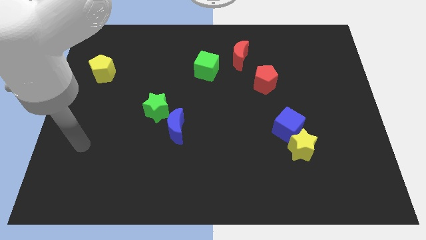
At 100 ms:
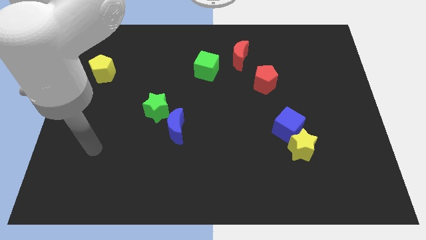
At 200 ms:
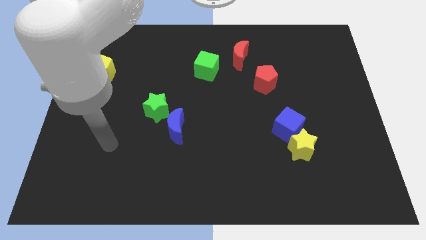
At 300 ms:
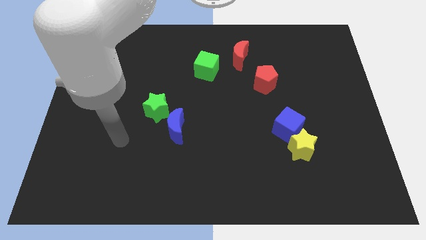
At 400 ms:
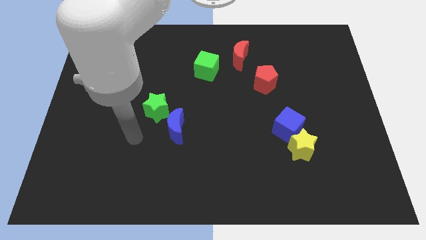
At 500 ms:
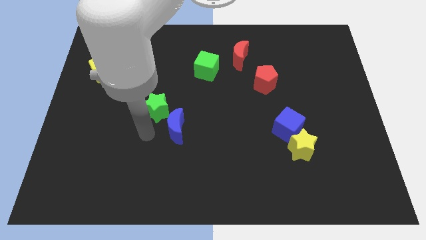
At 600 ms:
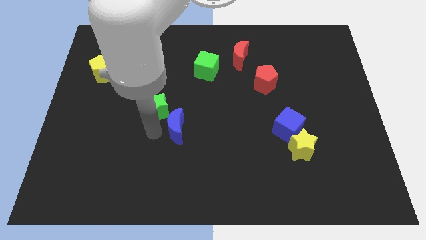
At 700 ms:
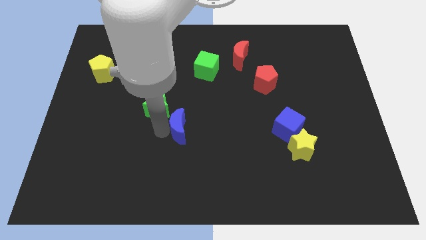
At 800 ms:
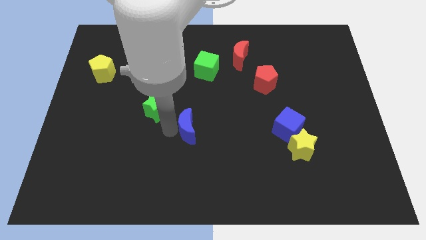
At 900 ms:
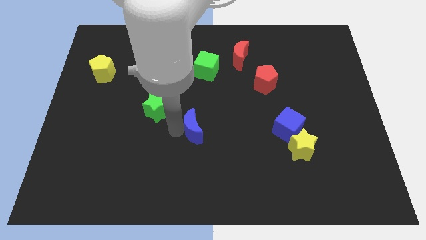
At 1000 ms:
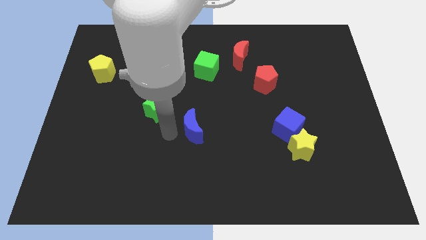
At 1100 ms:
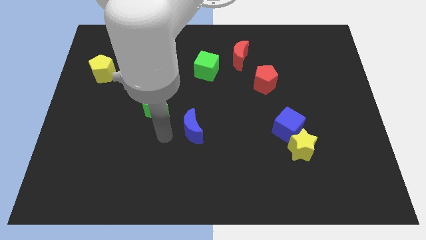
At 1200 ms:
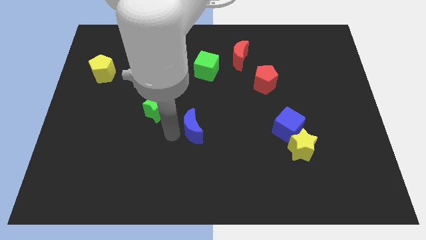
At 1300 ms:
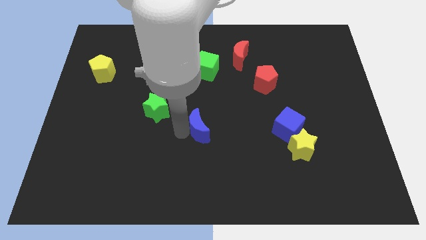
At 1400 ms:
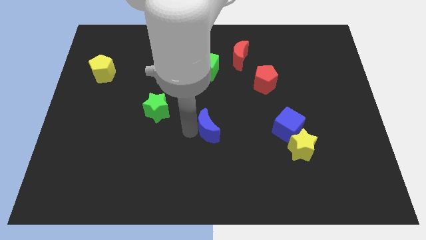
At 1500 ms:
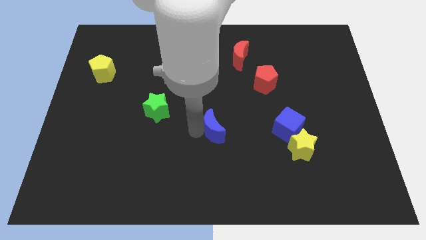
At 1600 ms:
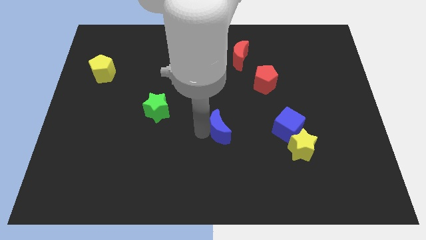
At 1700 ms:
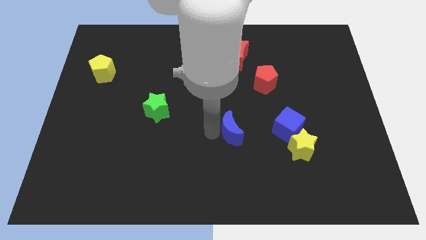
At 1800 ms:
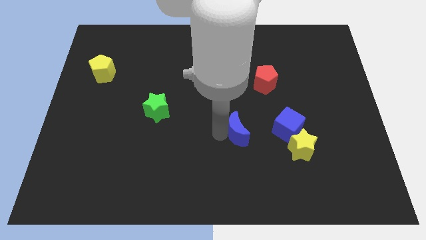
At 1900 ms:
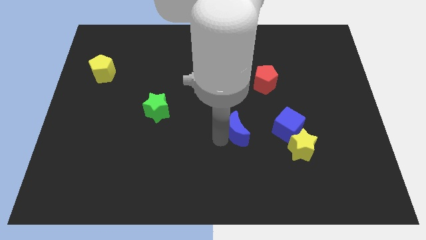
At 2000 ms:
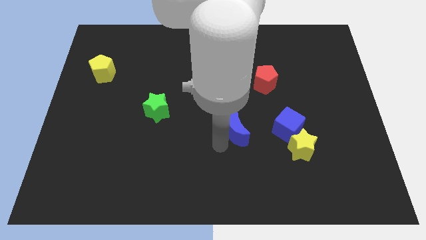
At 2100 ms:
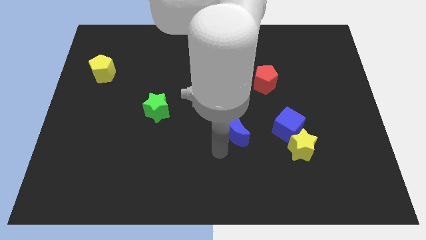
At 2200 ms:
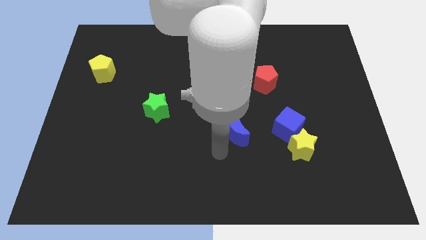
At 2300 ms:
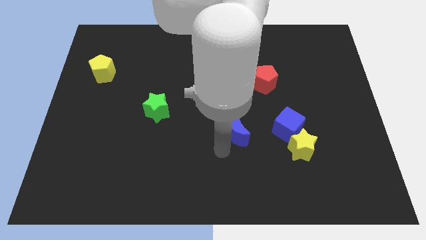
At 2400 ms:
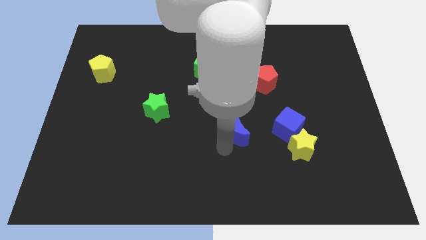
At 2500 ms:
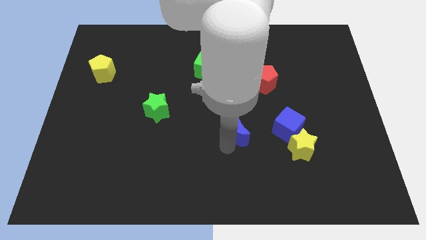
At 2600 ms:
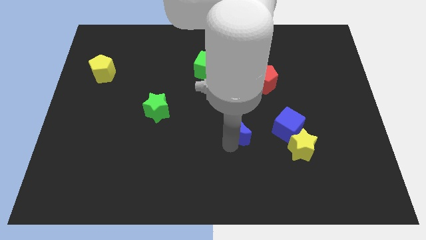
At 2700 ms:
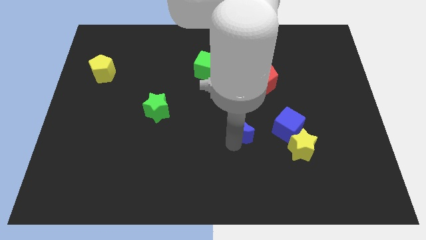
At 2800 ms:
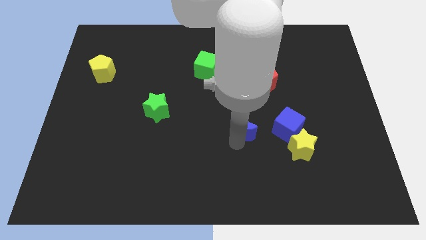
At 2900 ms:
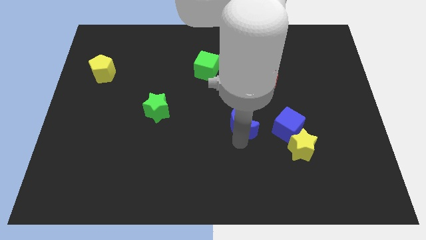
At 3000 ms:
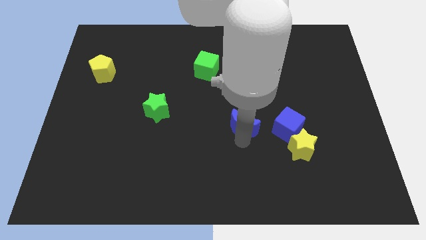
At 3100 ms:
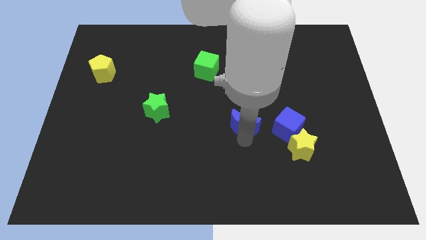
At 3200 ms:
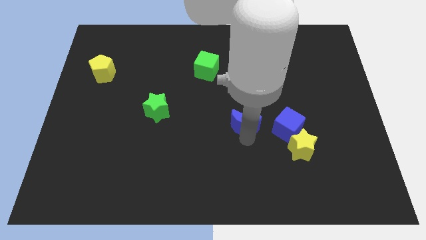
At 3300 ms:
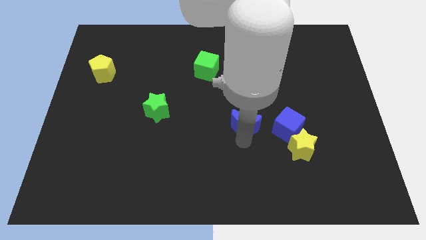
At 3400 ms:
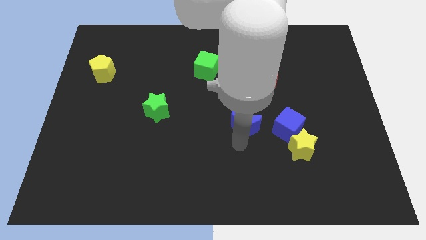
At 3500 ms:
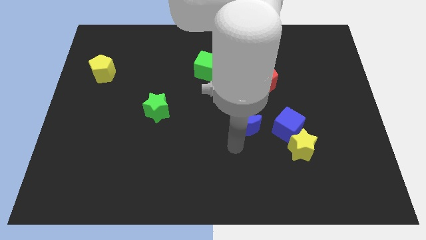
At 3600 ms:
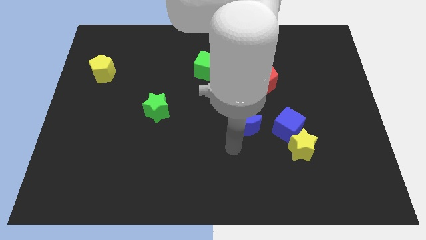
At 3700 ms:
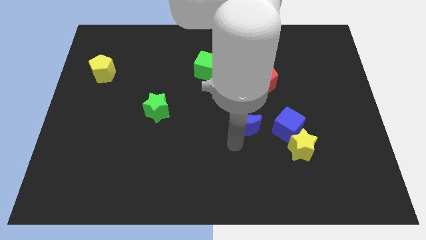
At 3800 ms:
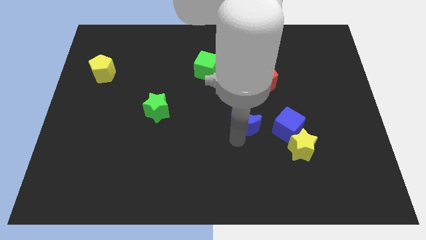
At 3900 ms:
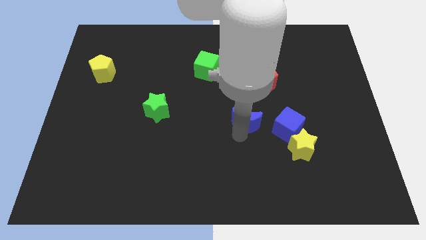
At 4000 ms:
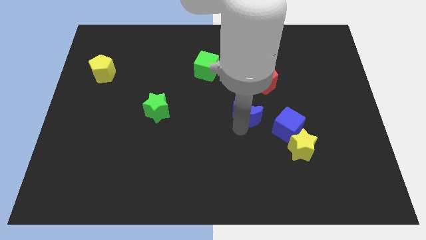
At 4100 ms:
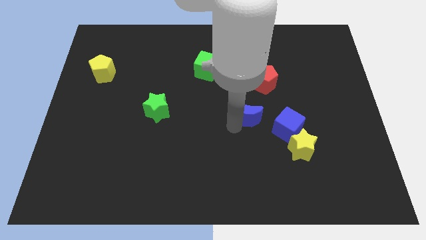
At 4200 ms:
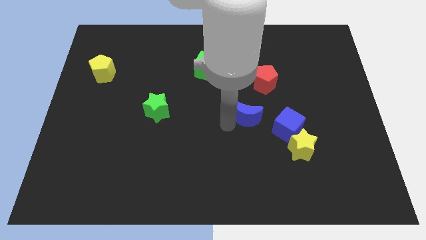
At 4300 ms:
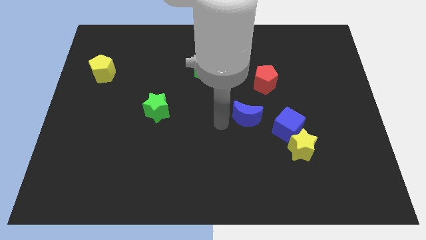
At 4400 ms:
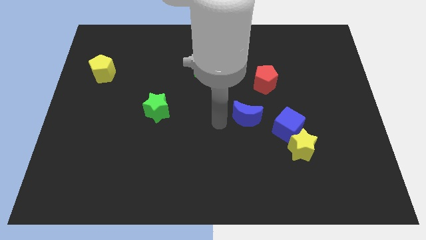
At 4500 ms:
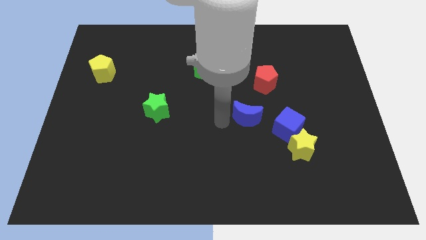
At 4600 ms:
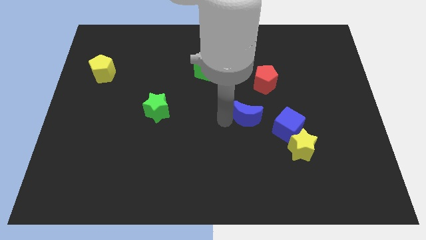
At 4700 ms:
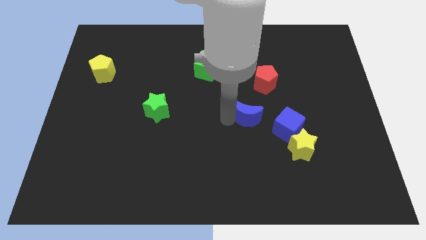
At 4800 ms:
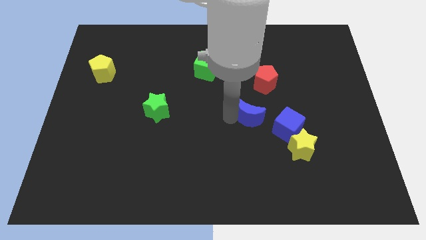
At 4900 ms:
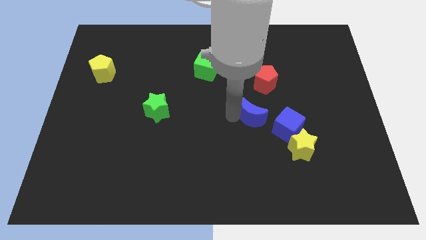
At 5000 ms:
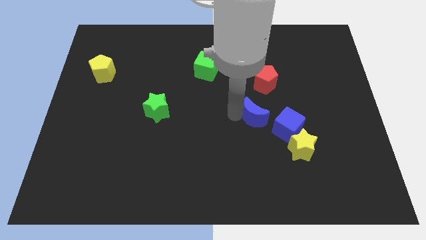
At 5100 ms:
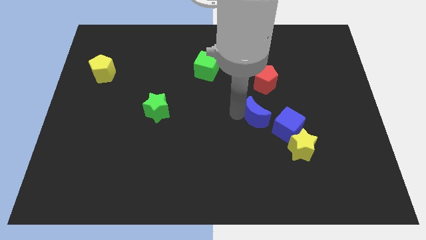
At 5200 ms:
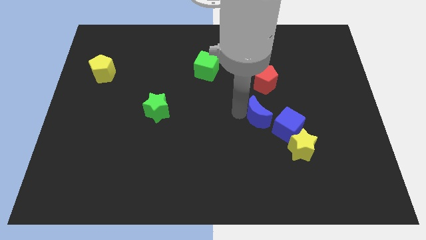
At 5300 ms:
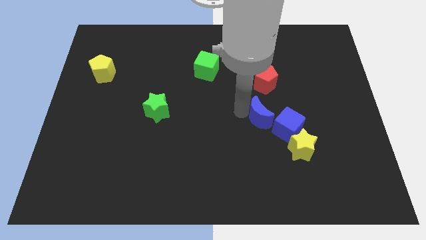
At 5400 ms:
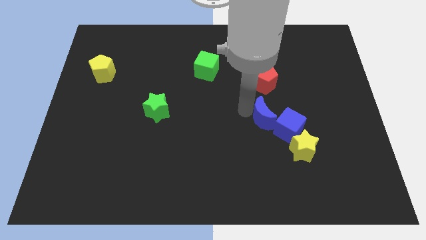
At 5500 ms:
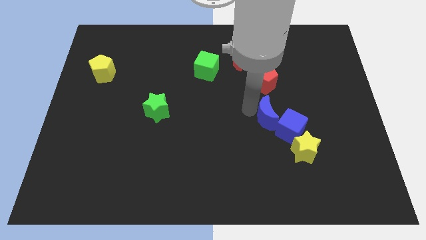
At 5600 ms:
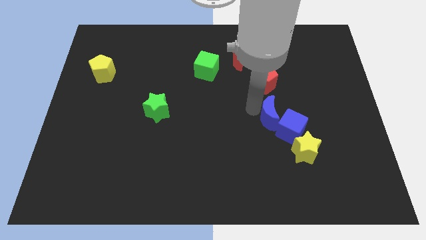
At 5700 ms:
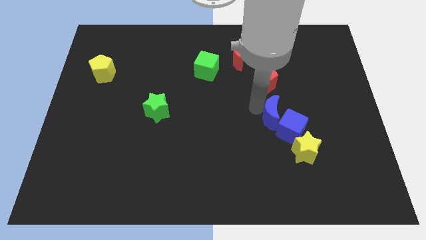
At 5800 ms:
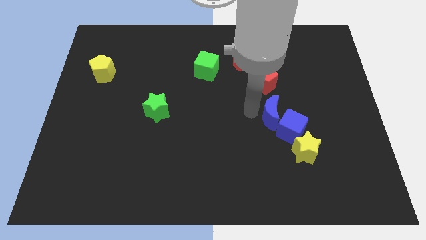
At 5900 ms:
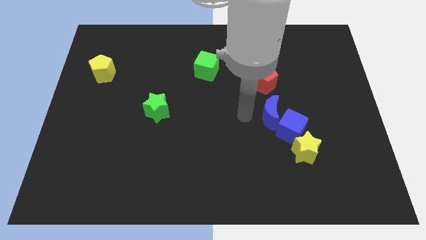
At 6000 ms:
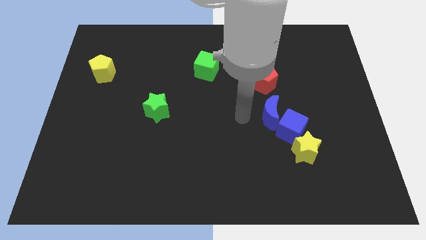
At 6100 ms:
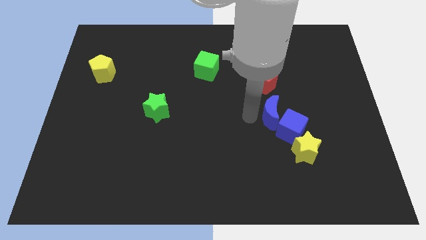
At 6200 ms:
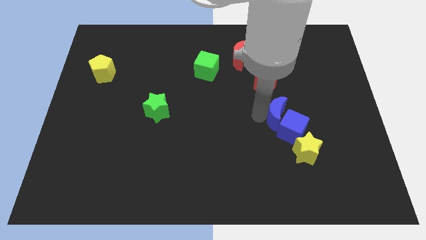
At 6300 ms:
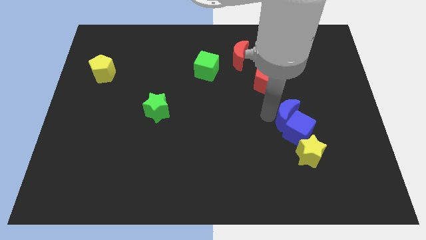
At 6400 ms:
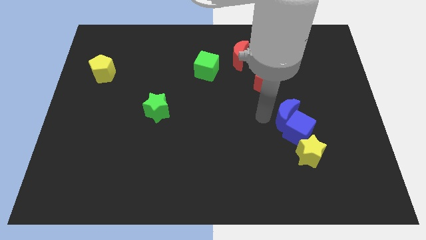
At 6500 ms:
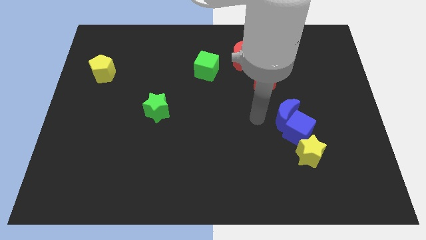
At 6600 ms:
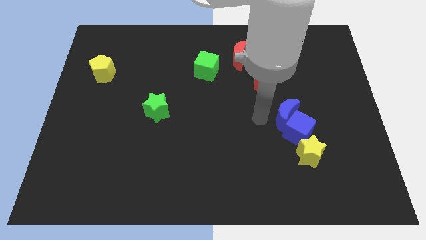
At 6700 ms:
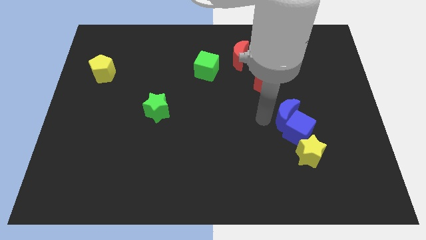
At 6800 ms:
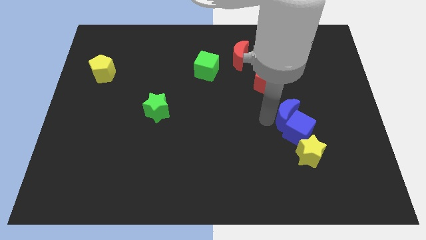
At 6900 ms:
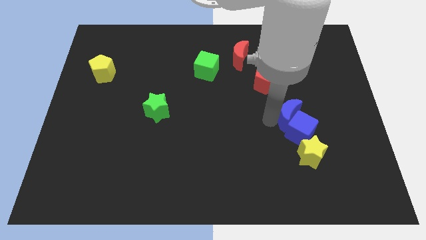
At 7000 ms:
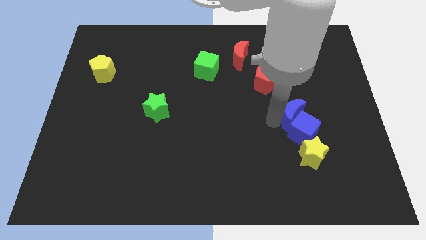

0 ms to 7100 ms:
push the blue moon to the top right side of the blue cube

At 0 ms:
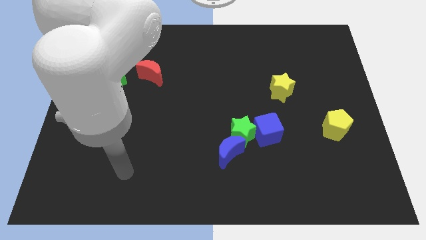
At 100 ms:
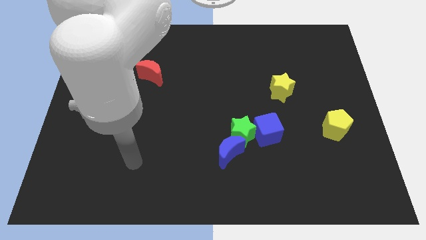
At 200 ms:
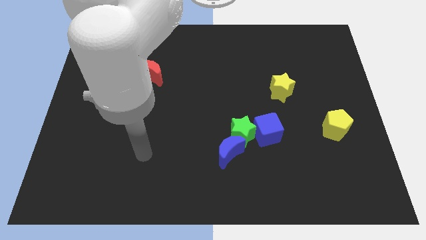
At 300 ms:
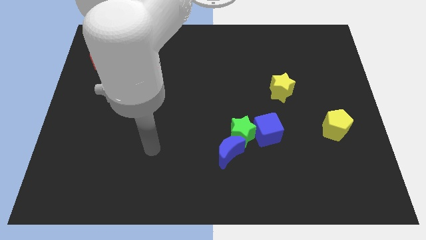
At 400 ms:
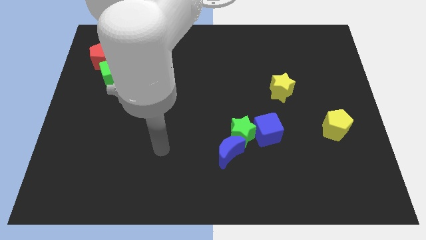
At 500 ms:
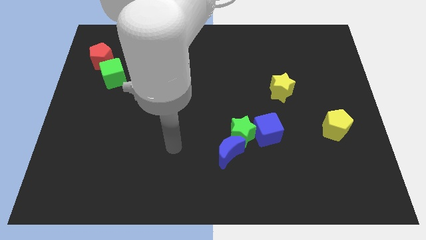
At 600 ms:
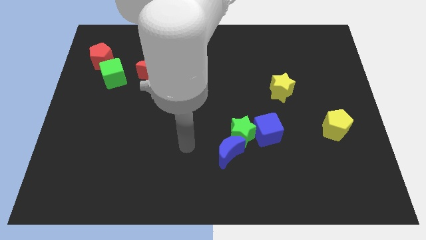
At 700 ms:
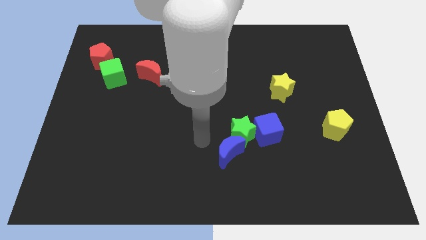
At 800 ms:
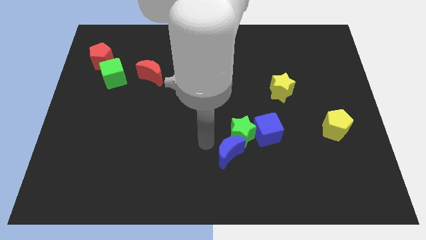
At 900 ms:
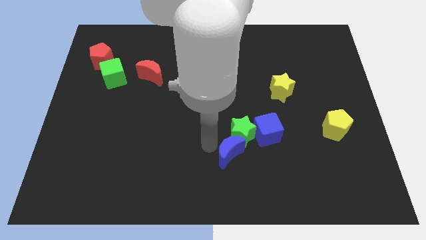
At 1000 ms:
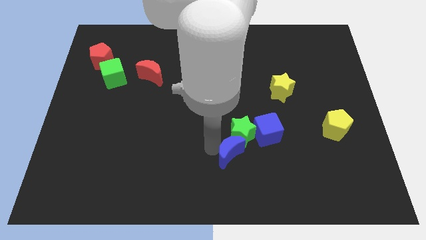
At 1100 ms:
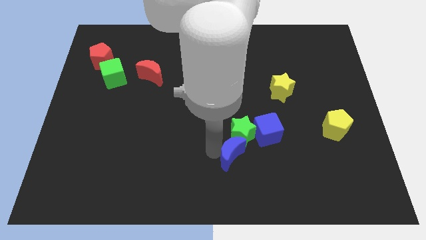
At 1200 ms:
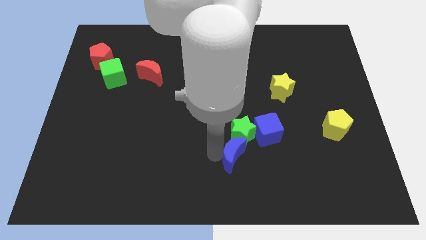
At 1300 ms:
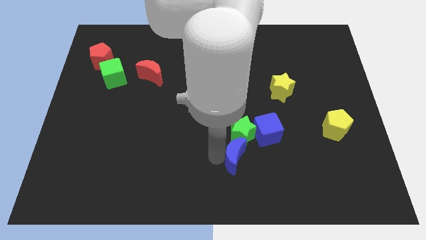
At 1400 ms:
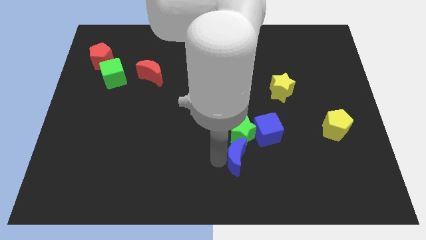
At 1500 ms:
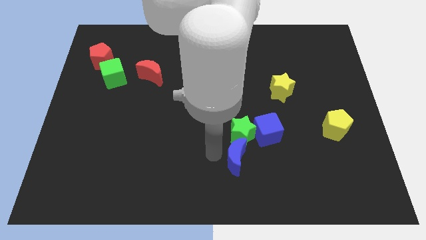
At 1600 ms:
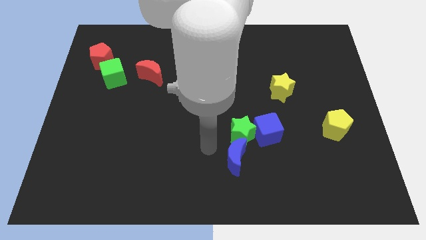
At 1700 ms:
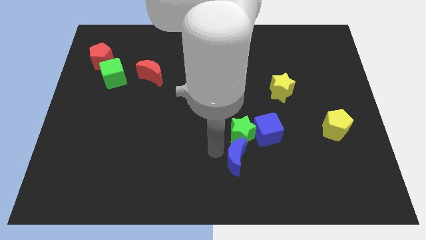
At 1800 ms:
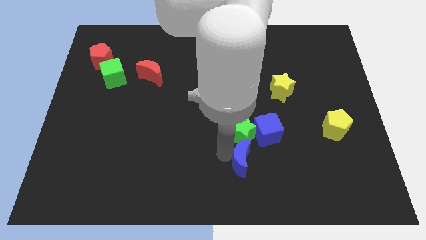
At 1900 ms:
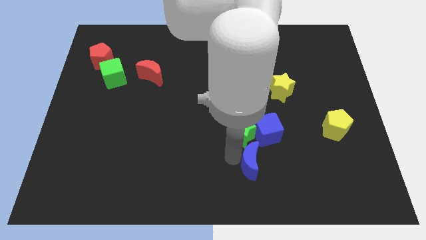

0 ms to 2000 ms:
put the blue moon to the bottom side of the blue cube
